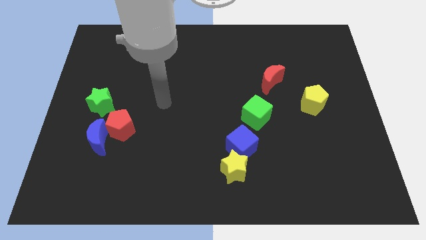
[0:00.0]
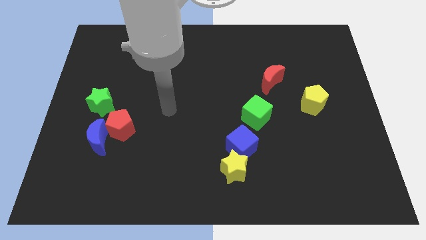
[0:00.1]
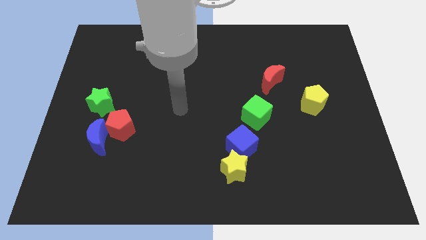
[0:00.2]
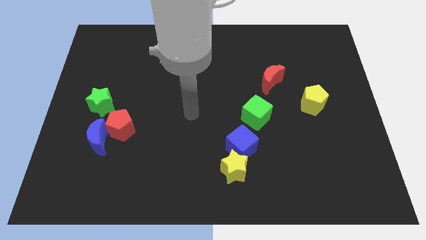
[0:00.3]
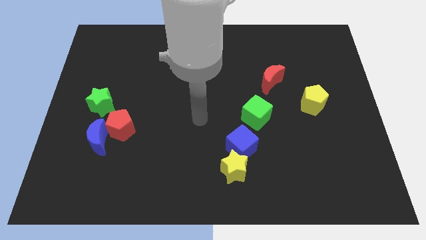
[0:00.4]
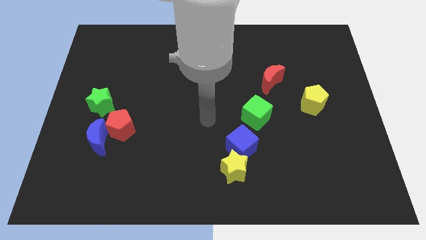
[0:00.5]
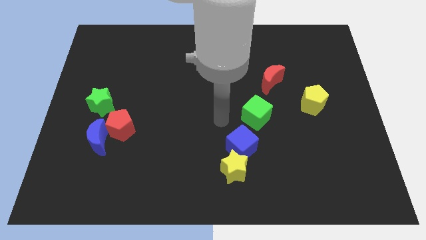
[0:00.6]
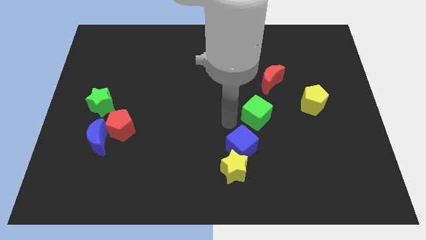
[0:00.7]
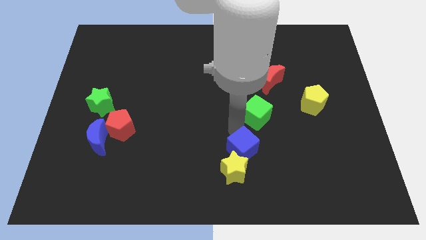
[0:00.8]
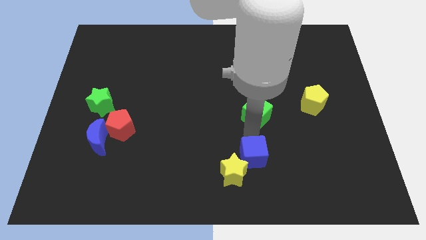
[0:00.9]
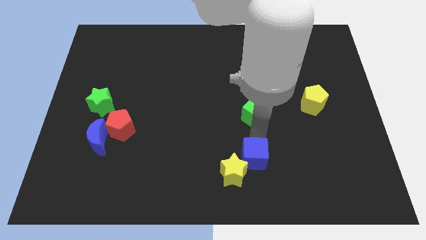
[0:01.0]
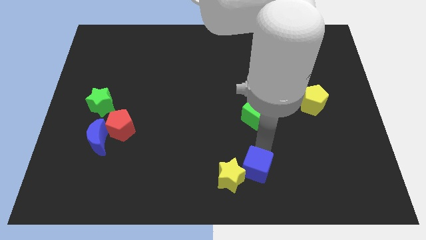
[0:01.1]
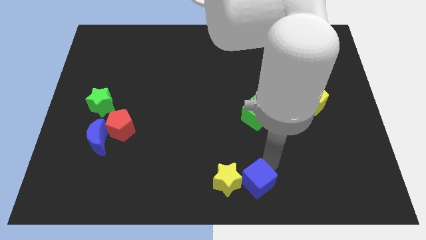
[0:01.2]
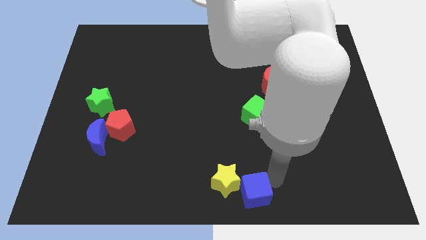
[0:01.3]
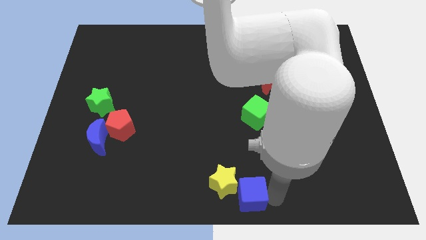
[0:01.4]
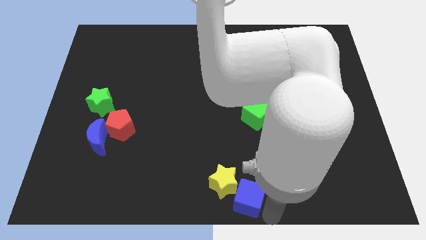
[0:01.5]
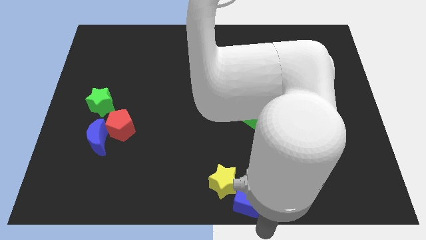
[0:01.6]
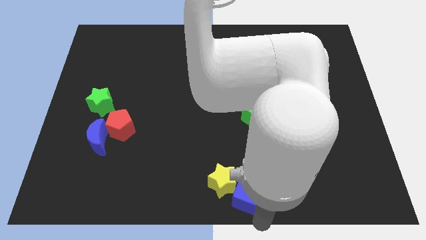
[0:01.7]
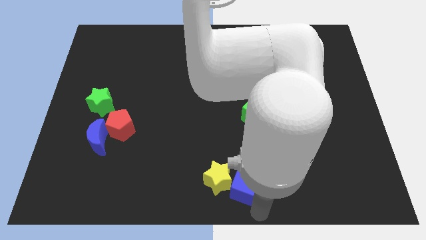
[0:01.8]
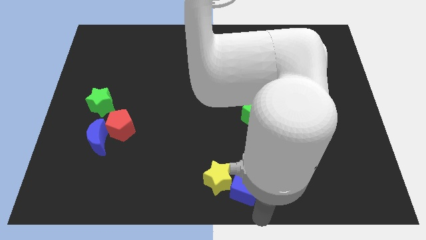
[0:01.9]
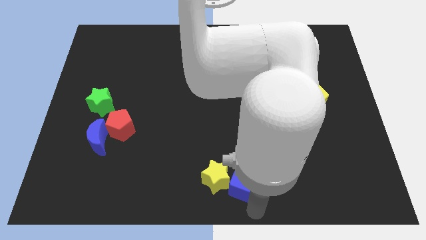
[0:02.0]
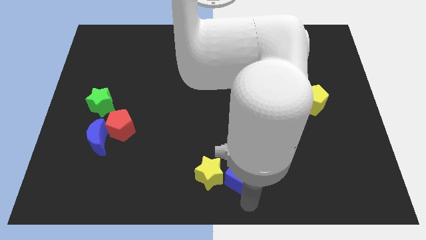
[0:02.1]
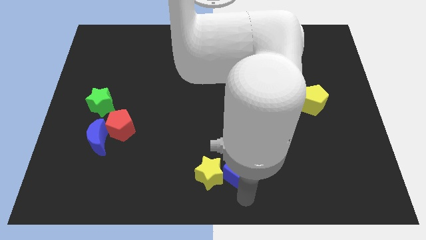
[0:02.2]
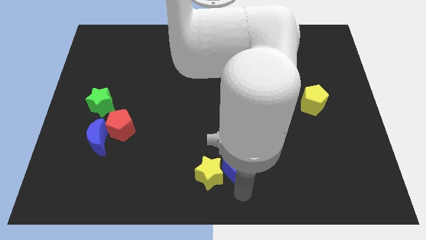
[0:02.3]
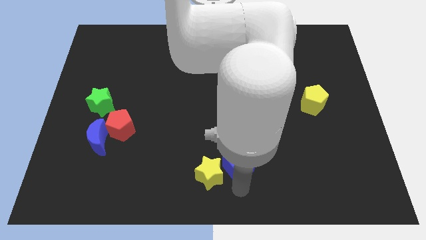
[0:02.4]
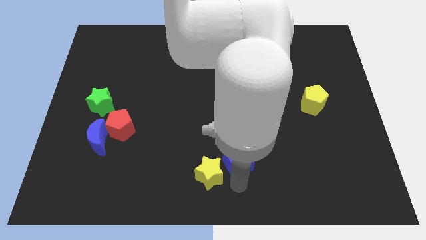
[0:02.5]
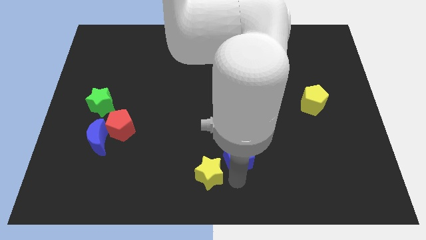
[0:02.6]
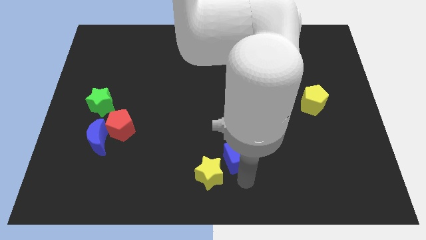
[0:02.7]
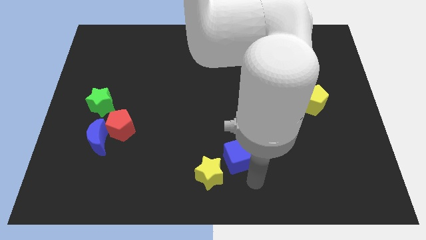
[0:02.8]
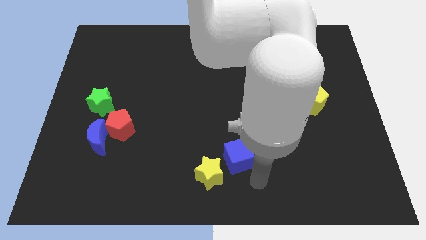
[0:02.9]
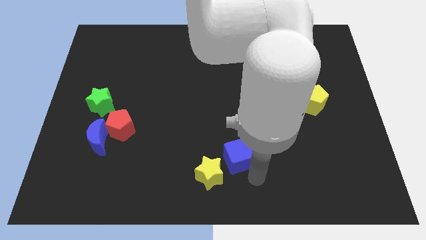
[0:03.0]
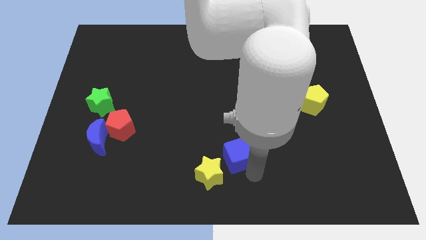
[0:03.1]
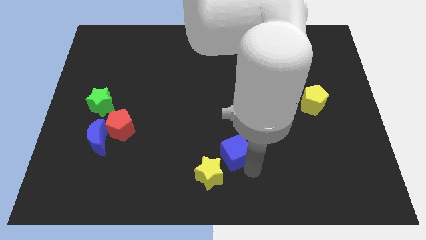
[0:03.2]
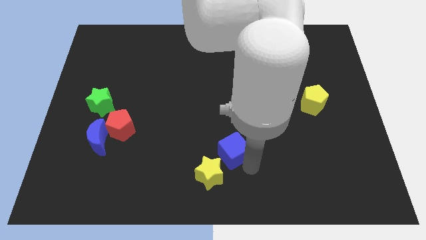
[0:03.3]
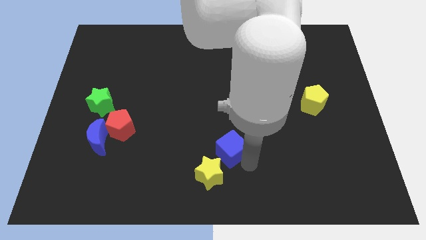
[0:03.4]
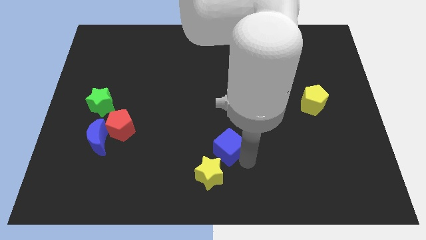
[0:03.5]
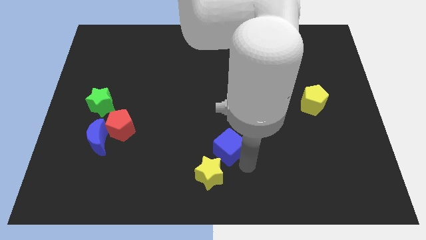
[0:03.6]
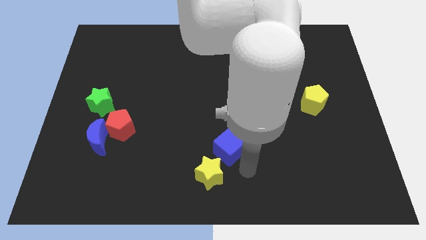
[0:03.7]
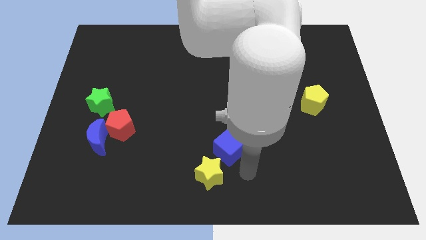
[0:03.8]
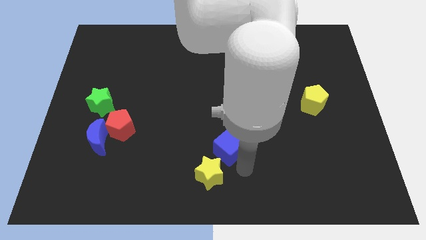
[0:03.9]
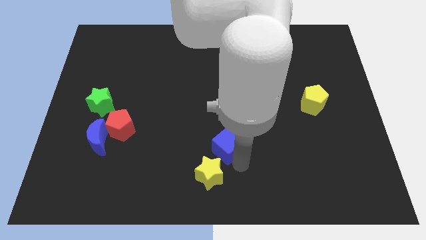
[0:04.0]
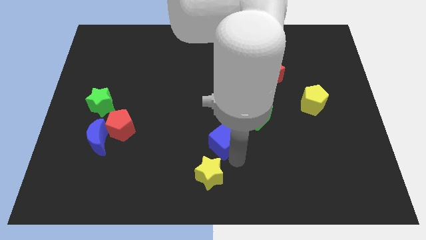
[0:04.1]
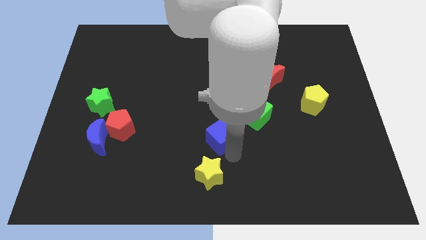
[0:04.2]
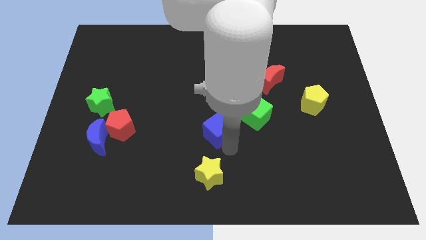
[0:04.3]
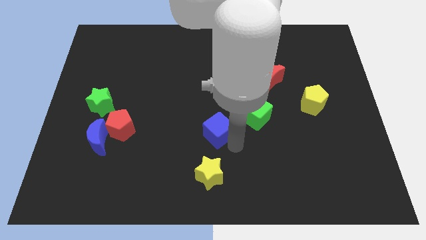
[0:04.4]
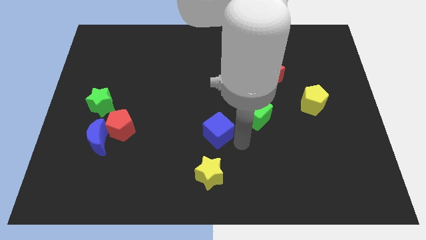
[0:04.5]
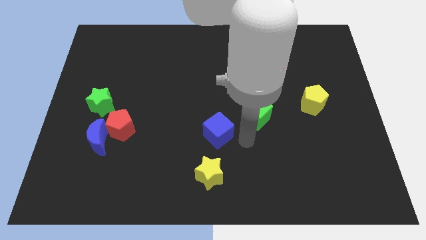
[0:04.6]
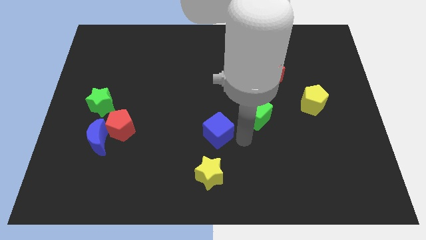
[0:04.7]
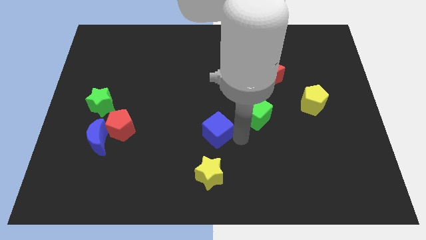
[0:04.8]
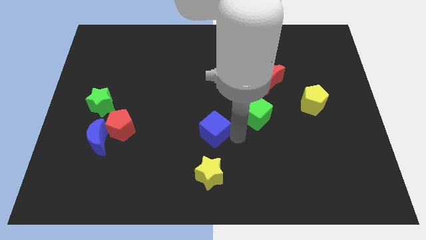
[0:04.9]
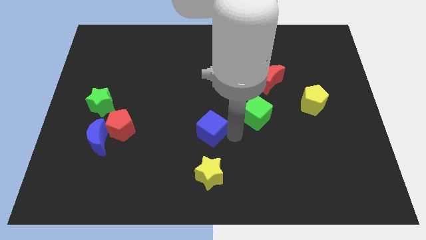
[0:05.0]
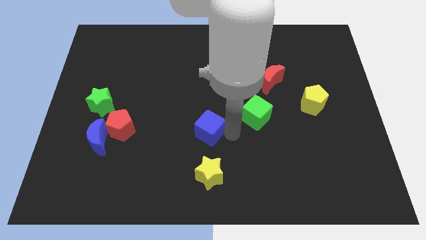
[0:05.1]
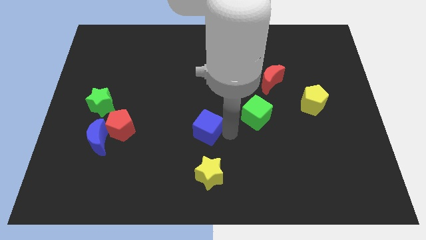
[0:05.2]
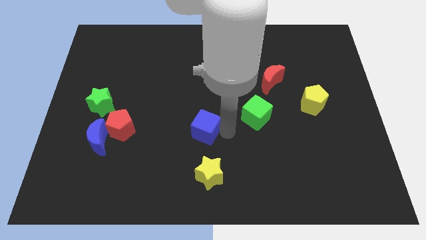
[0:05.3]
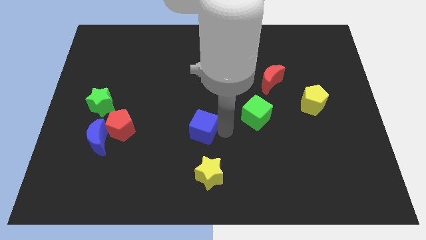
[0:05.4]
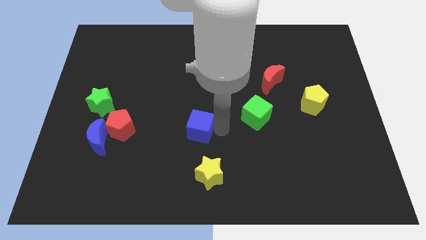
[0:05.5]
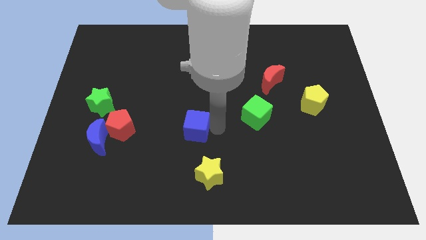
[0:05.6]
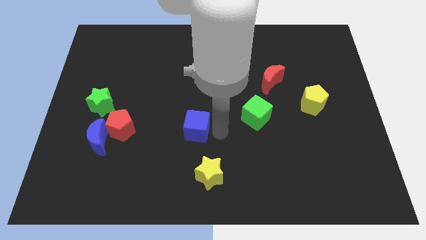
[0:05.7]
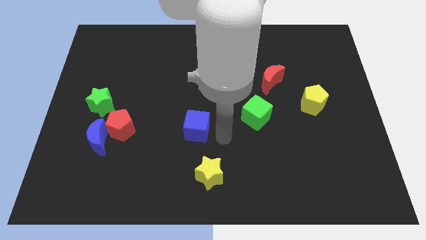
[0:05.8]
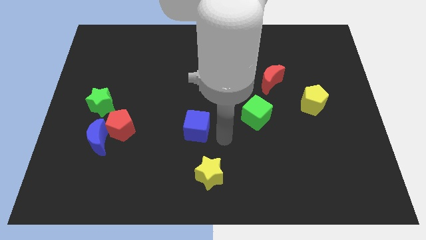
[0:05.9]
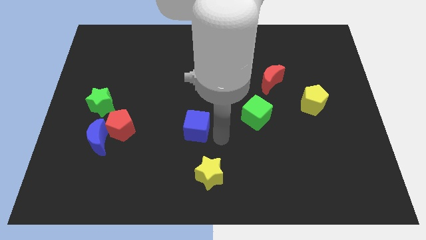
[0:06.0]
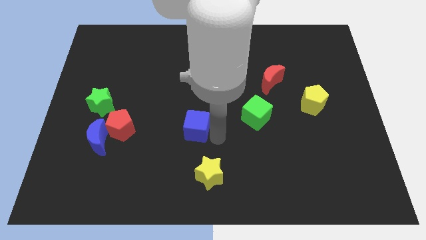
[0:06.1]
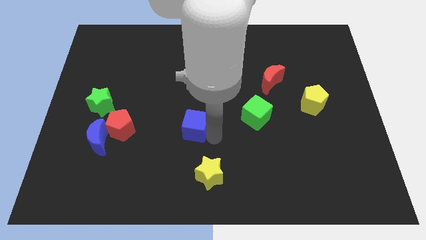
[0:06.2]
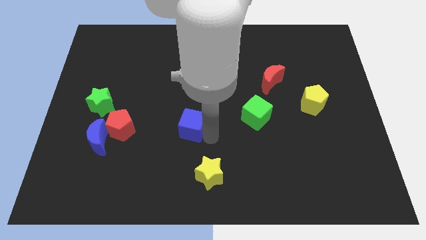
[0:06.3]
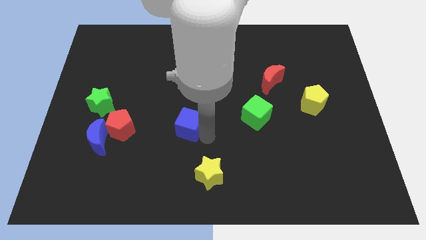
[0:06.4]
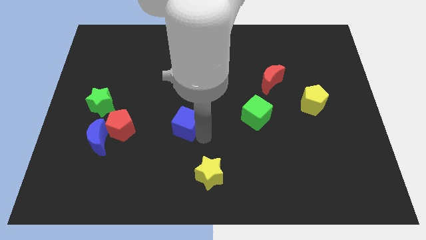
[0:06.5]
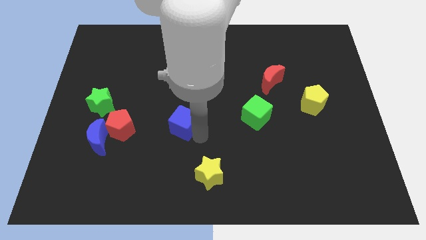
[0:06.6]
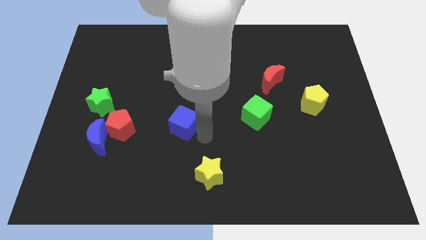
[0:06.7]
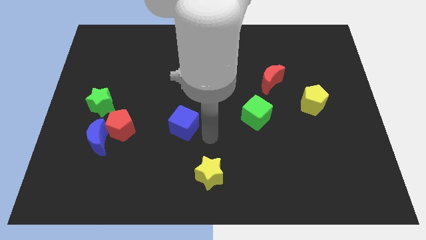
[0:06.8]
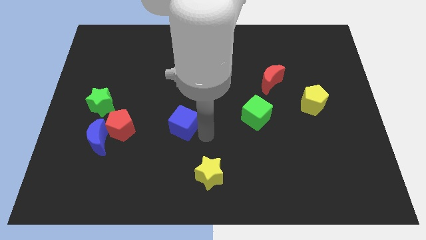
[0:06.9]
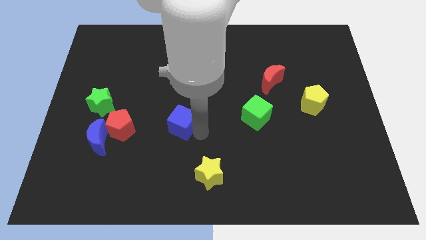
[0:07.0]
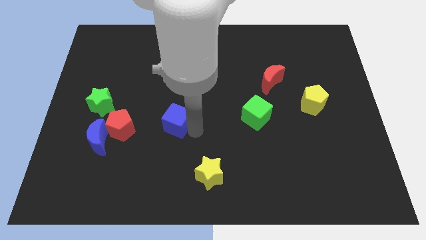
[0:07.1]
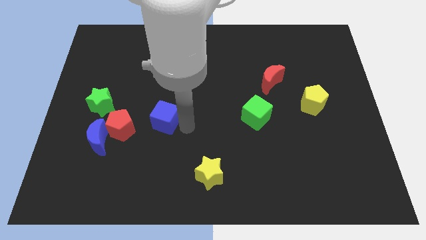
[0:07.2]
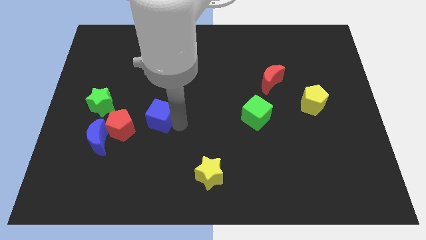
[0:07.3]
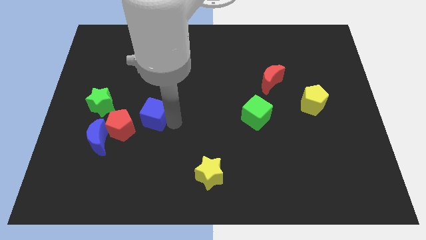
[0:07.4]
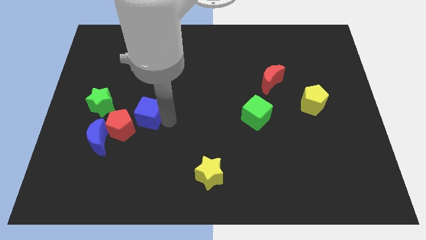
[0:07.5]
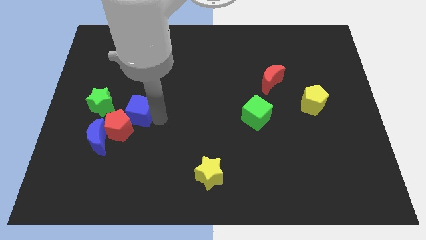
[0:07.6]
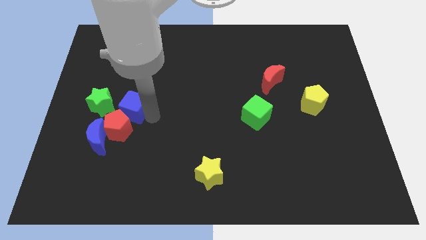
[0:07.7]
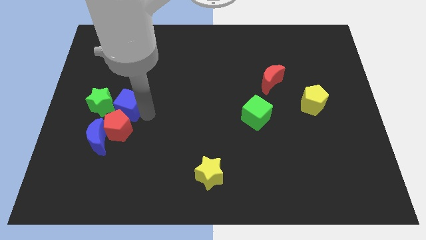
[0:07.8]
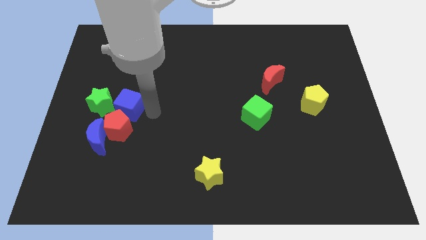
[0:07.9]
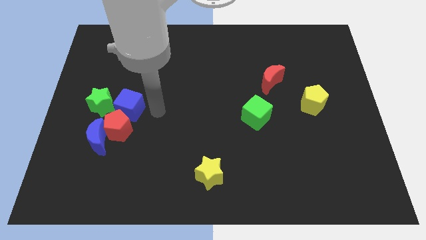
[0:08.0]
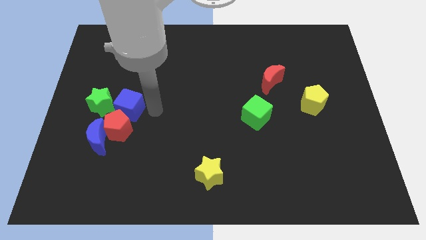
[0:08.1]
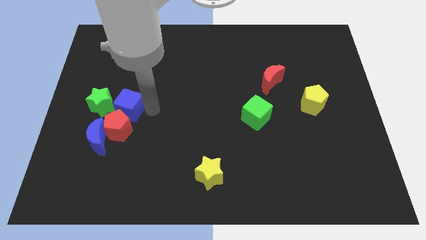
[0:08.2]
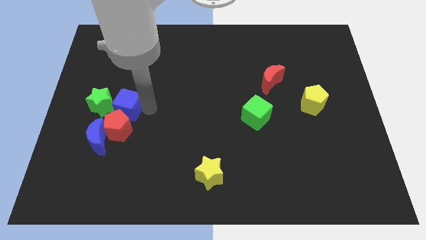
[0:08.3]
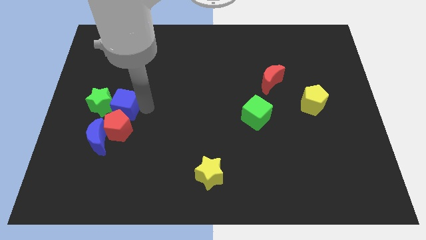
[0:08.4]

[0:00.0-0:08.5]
push the blue cube towards the green star

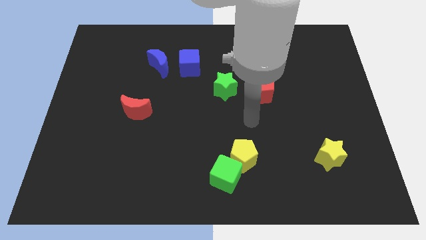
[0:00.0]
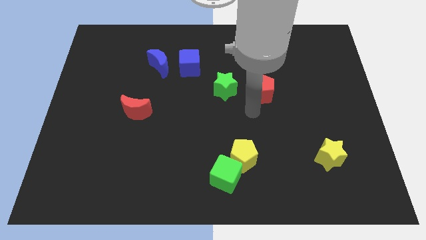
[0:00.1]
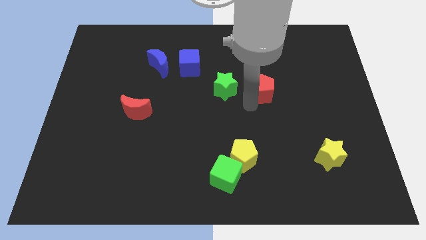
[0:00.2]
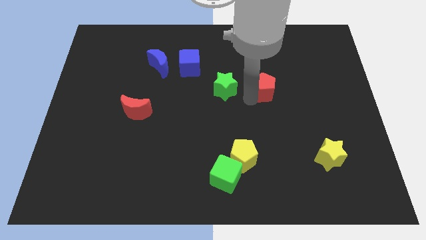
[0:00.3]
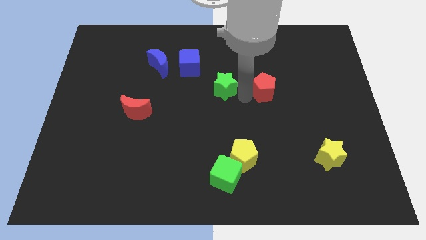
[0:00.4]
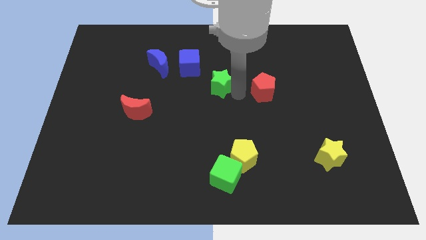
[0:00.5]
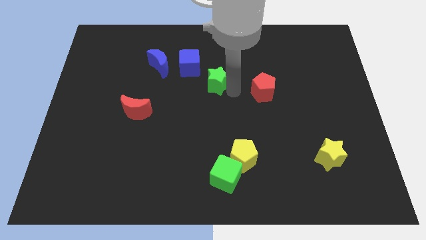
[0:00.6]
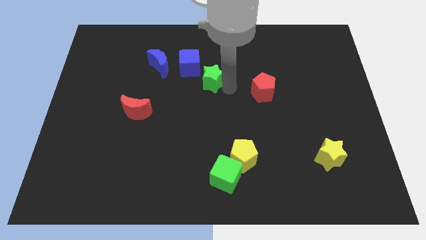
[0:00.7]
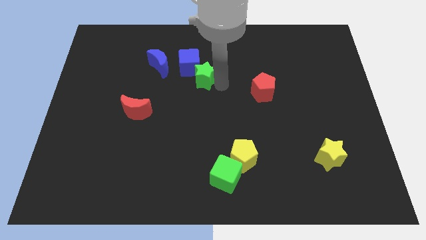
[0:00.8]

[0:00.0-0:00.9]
slide the green star to the blue cube
